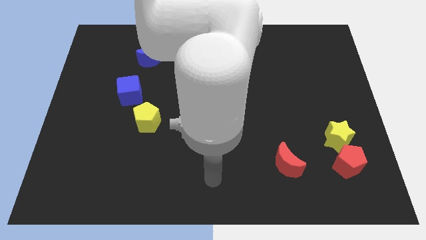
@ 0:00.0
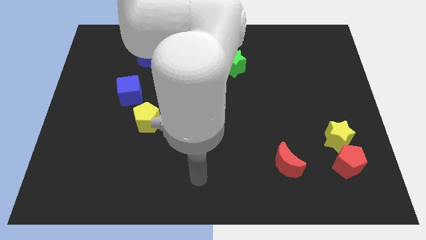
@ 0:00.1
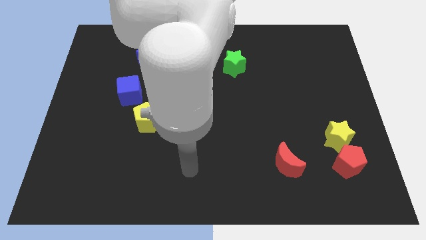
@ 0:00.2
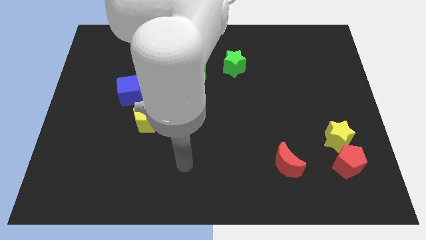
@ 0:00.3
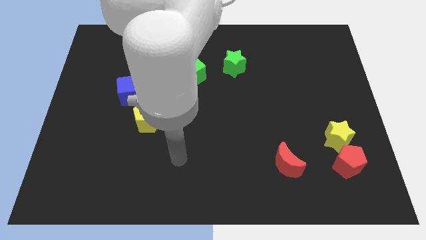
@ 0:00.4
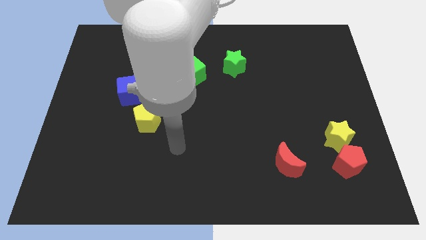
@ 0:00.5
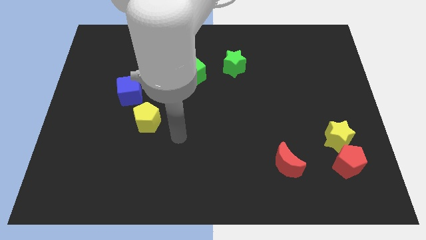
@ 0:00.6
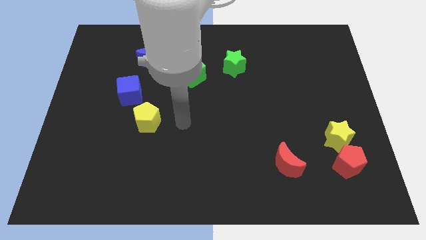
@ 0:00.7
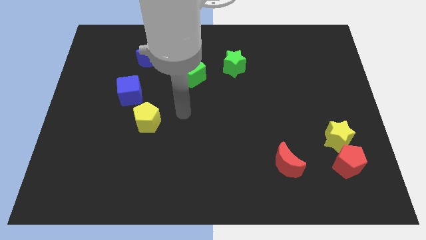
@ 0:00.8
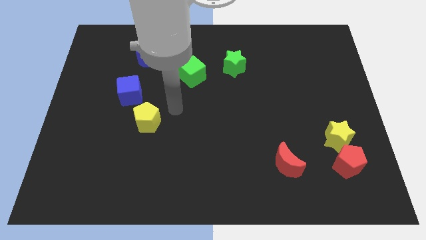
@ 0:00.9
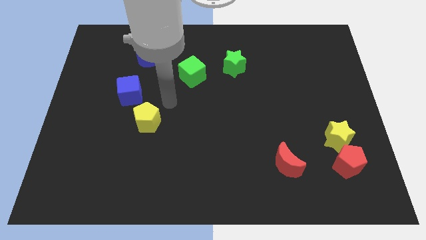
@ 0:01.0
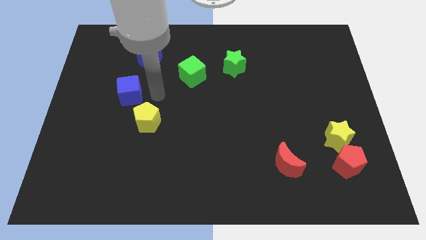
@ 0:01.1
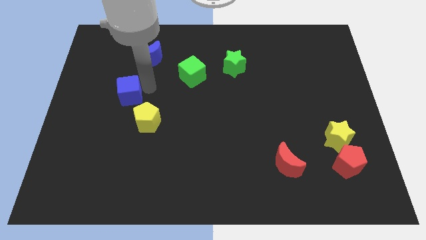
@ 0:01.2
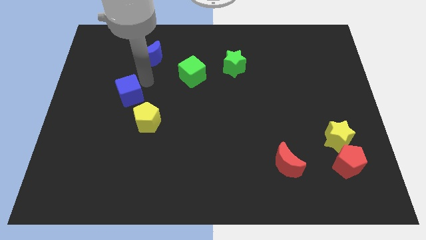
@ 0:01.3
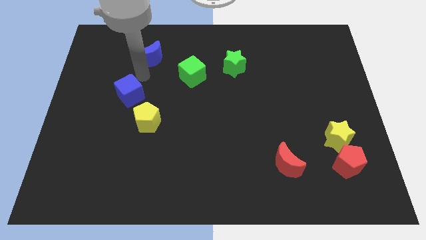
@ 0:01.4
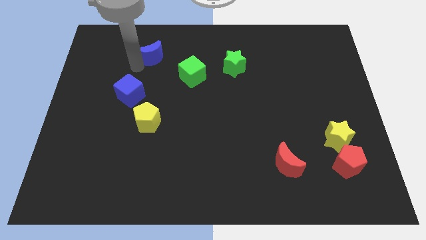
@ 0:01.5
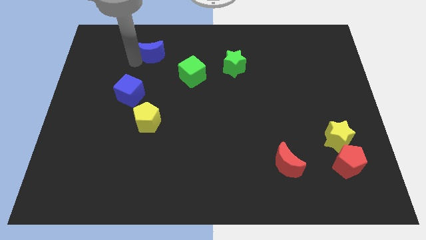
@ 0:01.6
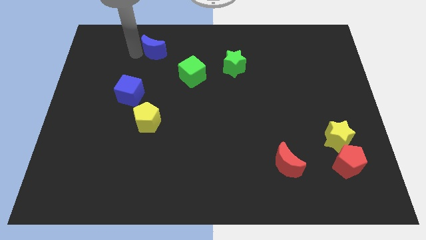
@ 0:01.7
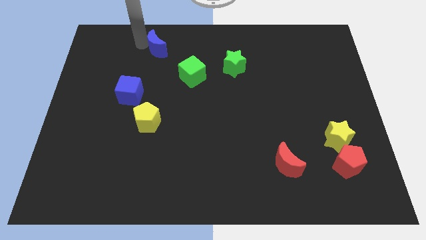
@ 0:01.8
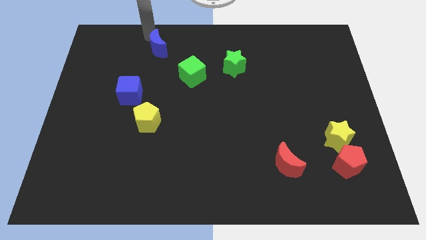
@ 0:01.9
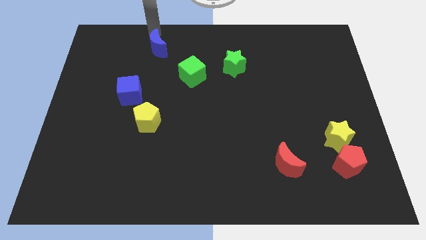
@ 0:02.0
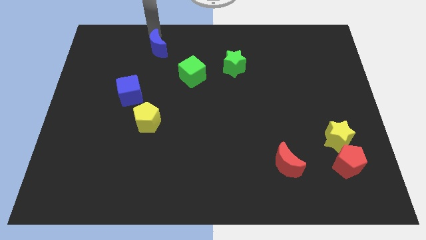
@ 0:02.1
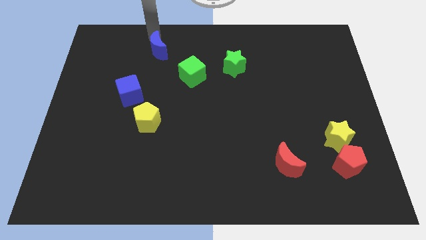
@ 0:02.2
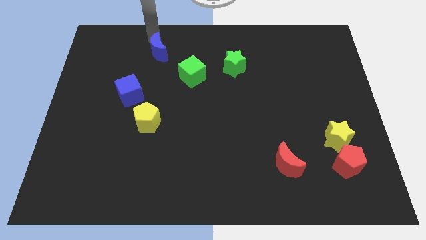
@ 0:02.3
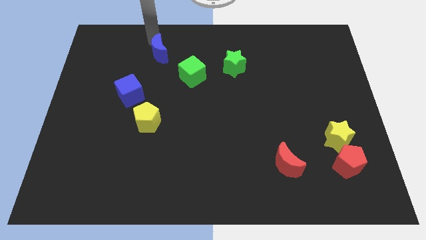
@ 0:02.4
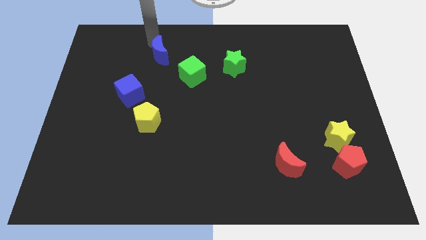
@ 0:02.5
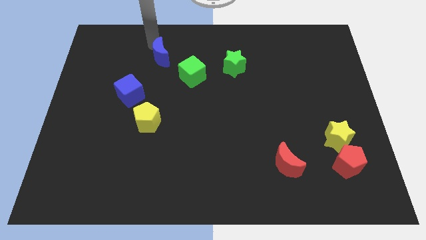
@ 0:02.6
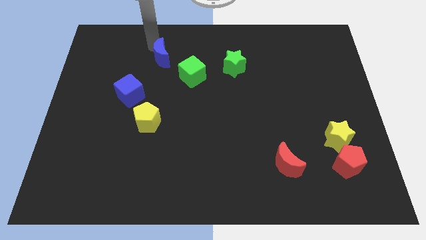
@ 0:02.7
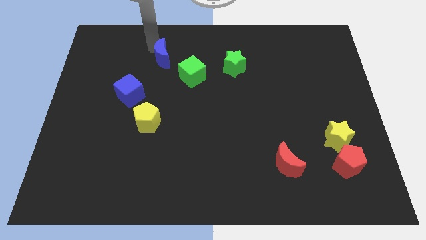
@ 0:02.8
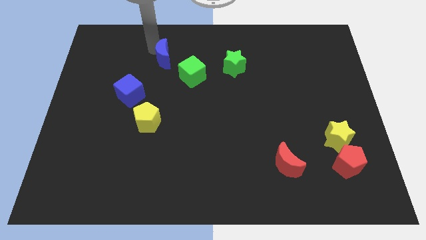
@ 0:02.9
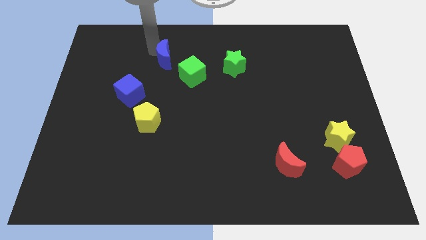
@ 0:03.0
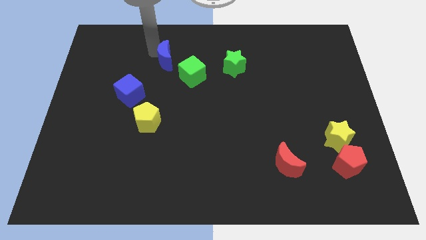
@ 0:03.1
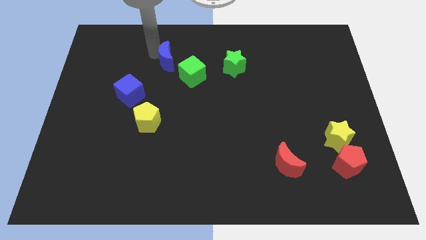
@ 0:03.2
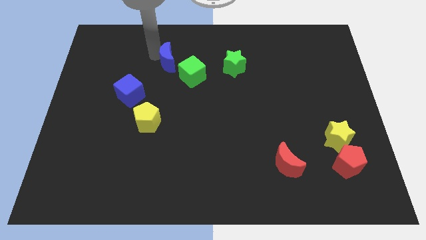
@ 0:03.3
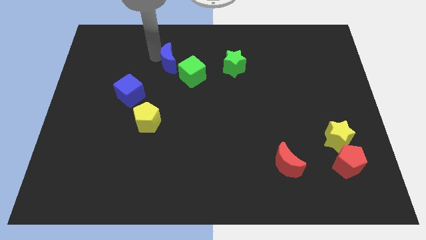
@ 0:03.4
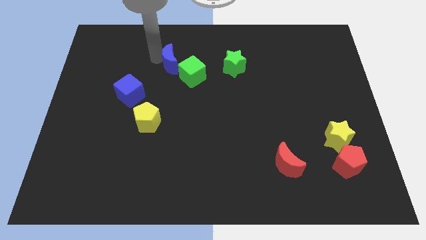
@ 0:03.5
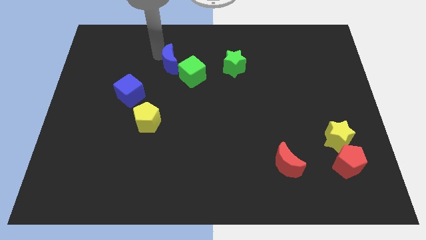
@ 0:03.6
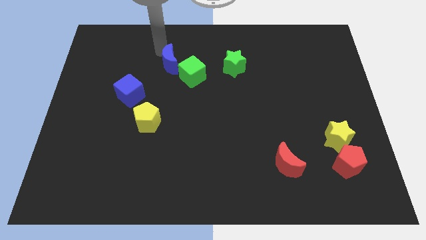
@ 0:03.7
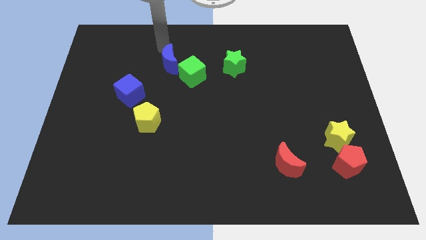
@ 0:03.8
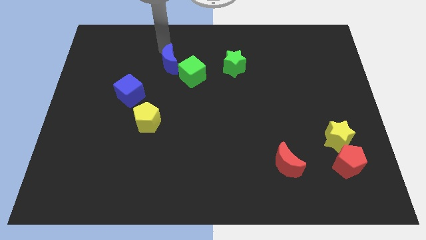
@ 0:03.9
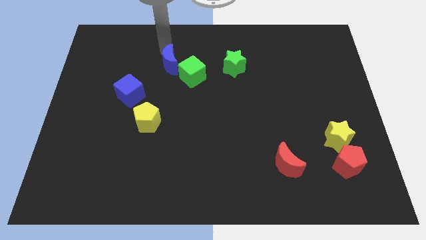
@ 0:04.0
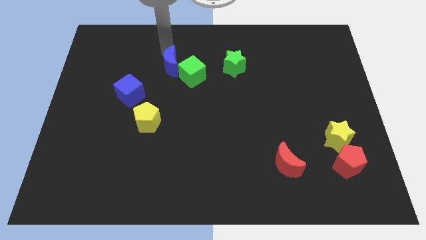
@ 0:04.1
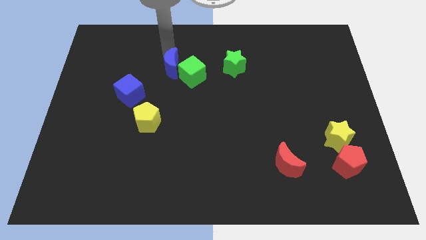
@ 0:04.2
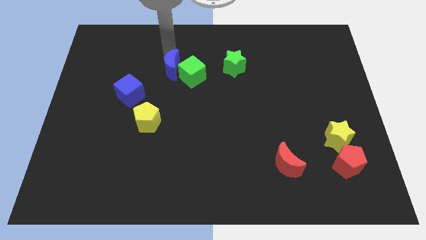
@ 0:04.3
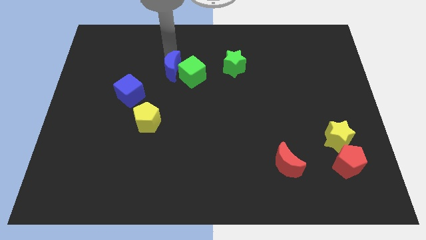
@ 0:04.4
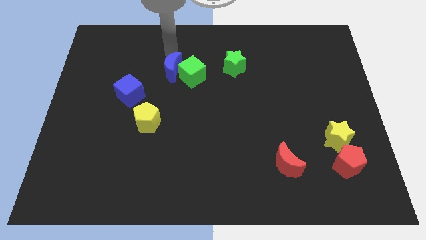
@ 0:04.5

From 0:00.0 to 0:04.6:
push the blue moon a bit diagonally downwards and to the right

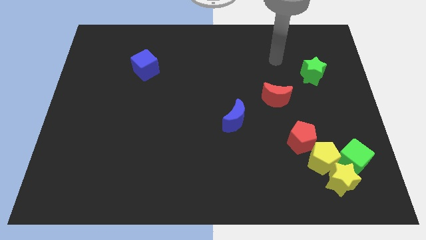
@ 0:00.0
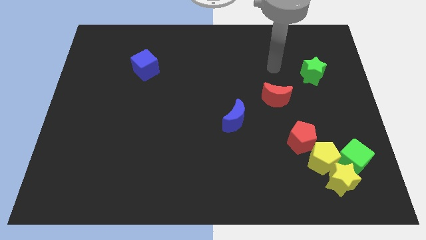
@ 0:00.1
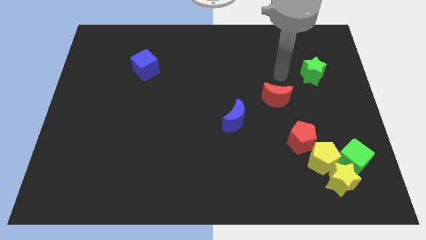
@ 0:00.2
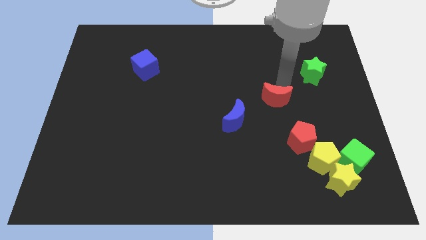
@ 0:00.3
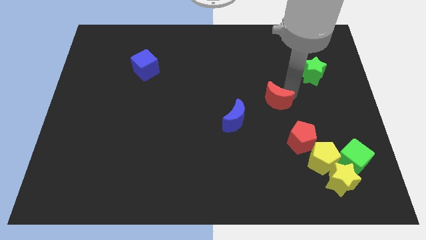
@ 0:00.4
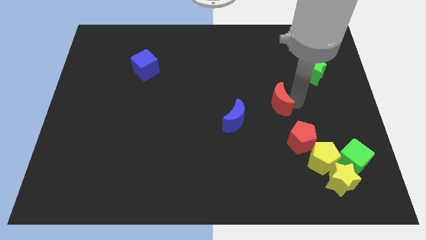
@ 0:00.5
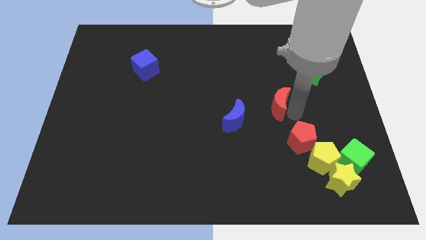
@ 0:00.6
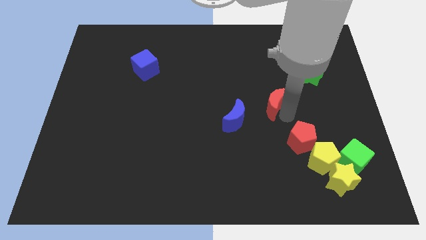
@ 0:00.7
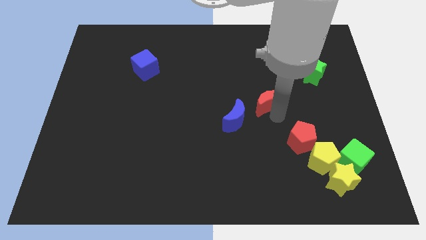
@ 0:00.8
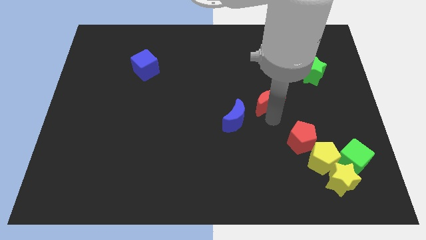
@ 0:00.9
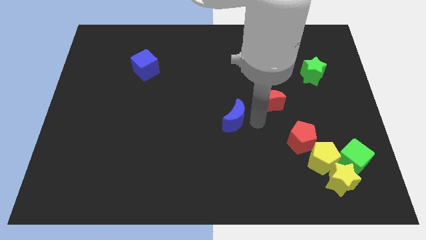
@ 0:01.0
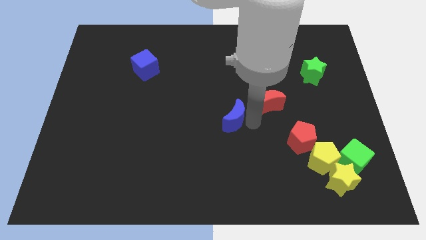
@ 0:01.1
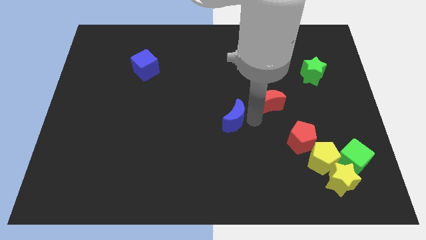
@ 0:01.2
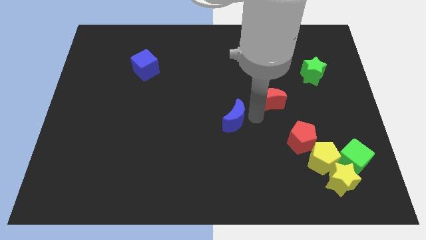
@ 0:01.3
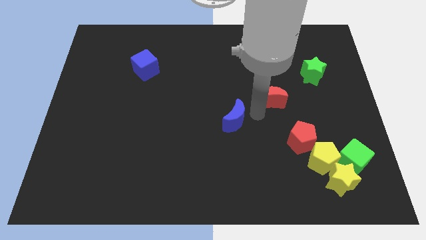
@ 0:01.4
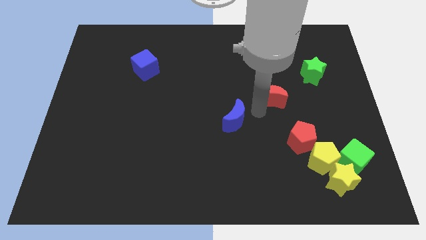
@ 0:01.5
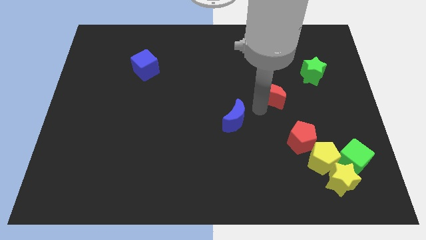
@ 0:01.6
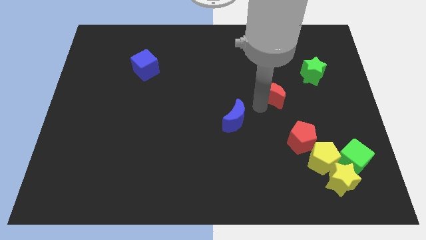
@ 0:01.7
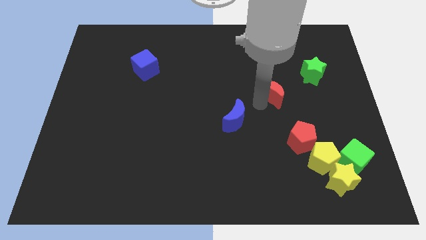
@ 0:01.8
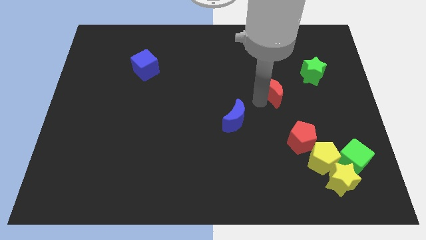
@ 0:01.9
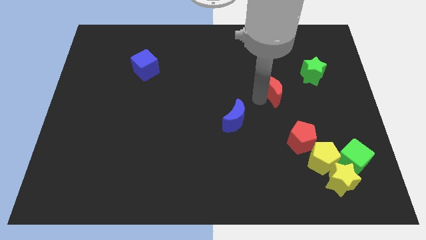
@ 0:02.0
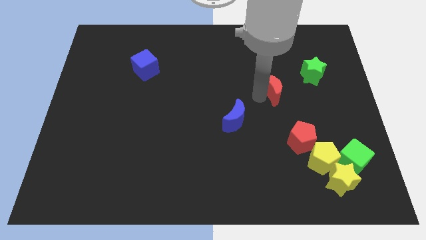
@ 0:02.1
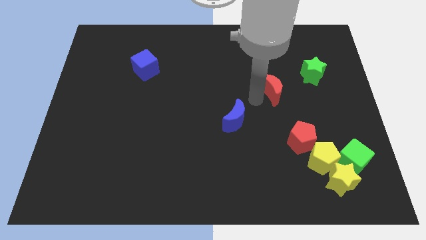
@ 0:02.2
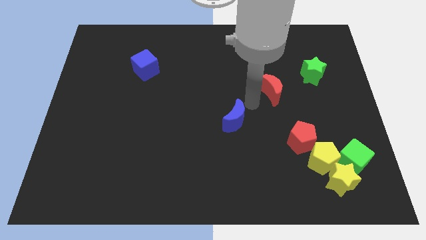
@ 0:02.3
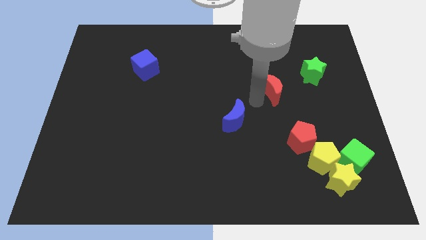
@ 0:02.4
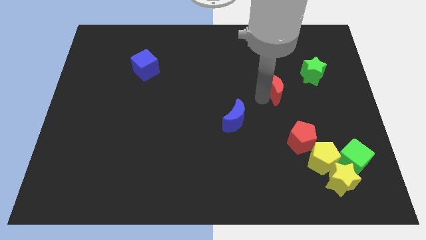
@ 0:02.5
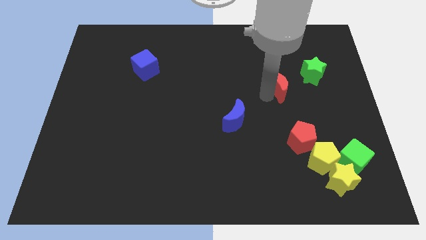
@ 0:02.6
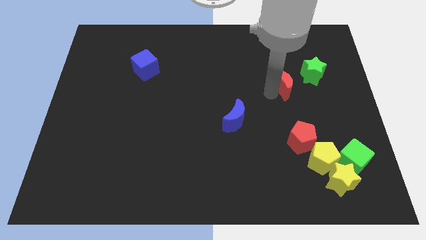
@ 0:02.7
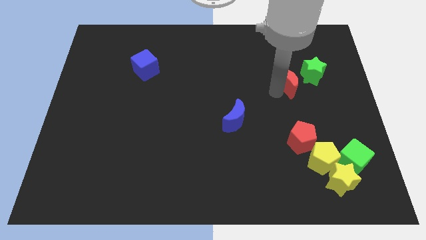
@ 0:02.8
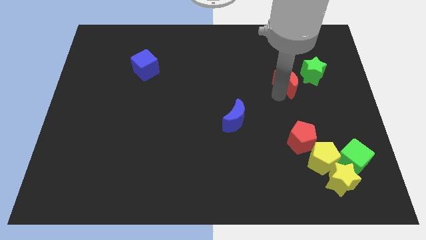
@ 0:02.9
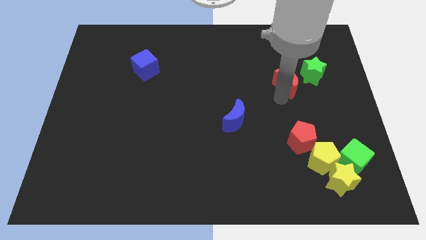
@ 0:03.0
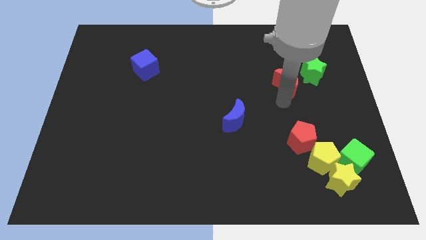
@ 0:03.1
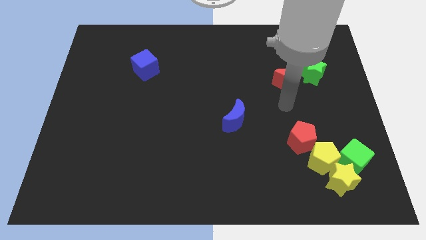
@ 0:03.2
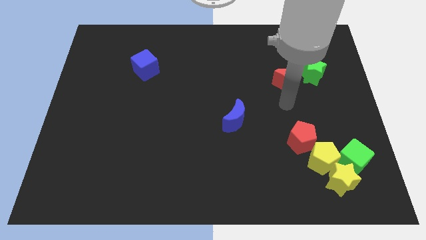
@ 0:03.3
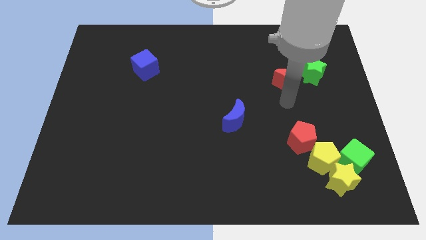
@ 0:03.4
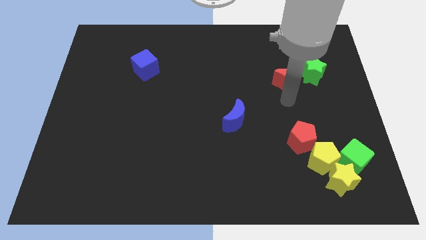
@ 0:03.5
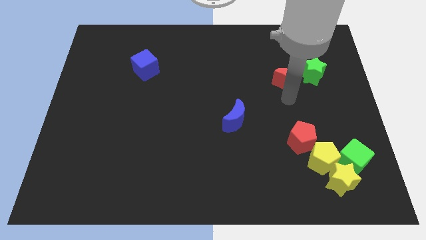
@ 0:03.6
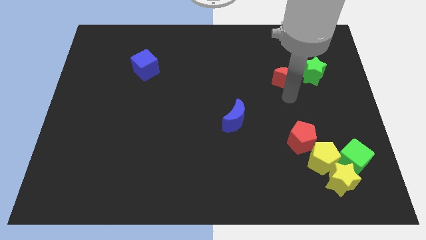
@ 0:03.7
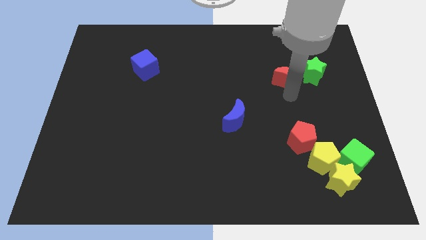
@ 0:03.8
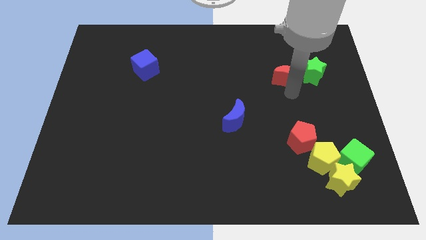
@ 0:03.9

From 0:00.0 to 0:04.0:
slide the red moon upwards and to the right a bit
